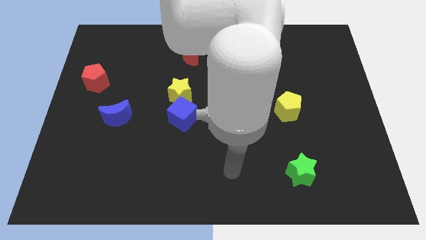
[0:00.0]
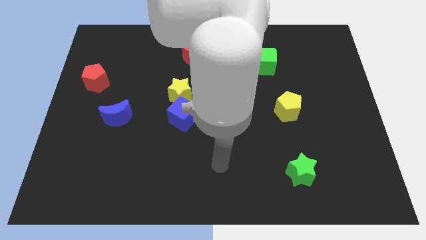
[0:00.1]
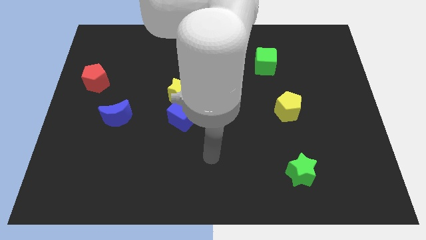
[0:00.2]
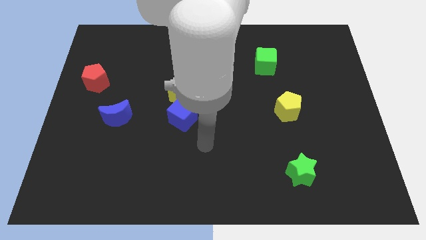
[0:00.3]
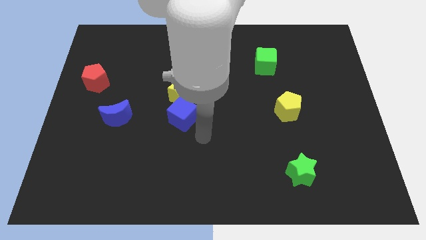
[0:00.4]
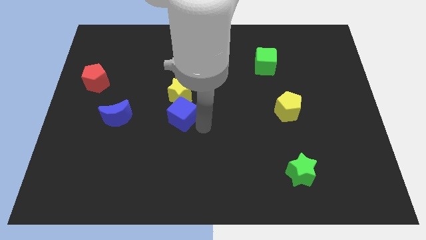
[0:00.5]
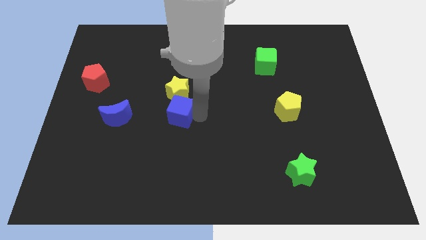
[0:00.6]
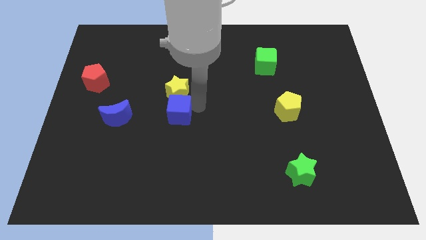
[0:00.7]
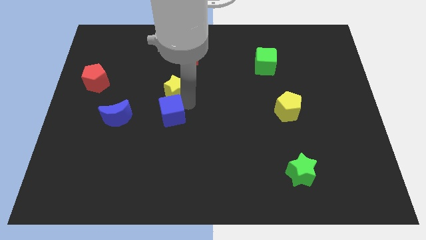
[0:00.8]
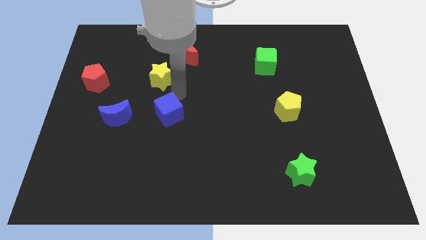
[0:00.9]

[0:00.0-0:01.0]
move the blue cube away from the yellow star

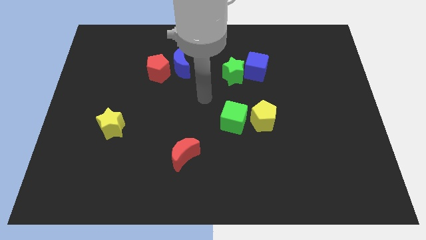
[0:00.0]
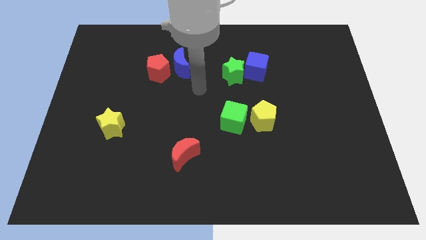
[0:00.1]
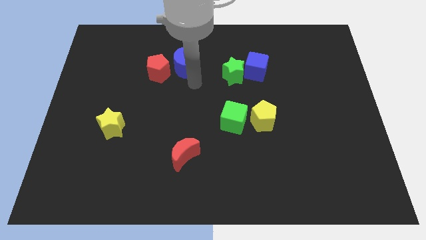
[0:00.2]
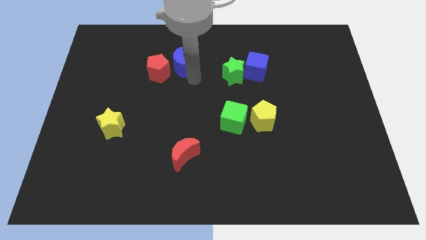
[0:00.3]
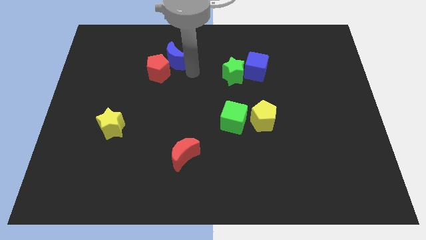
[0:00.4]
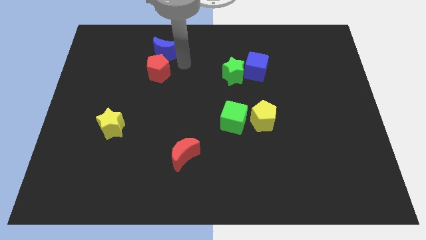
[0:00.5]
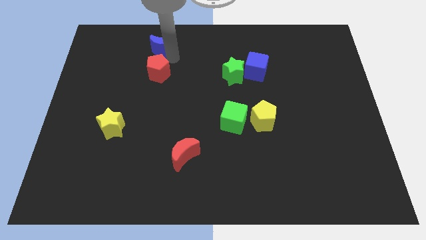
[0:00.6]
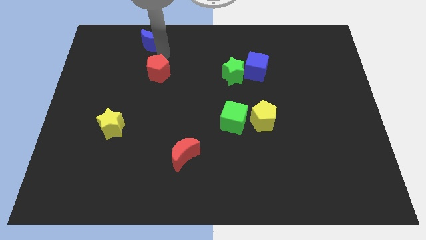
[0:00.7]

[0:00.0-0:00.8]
separate the red pentagon from the blue moon

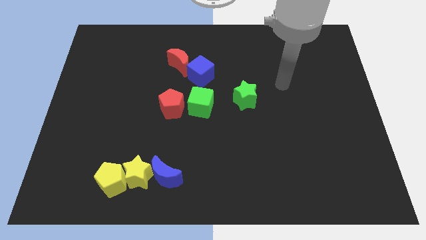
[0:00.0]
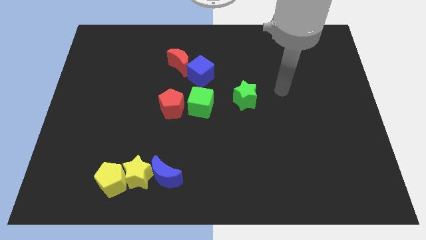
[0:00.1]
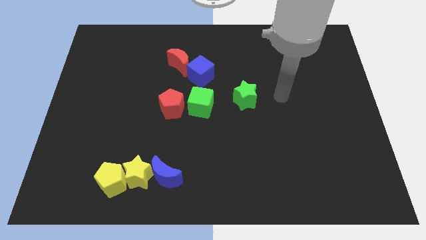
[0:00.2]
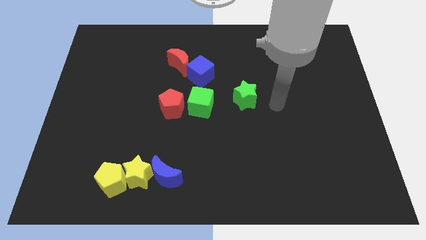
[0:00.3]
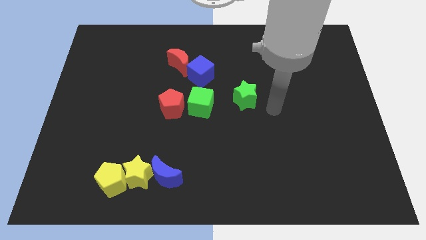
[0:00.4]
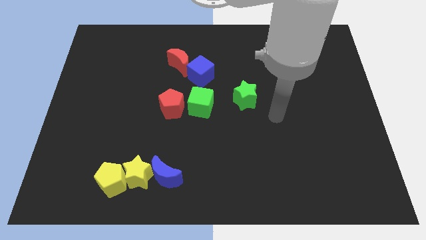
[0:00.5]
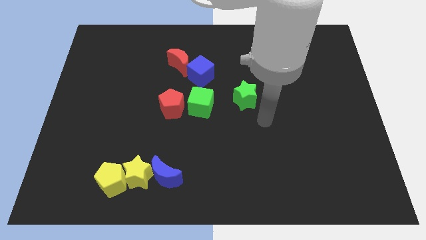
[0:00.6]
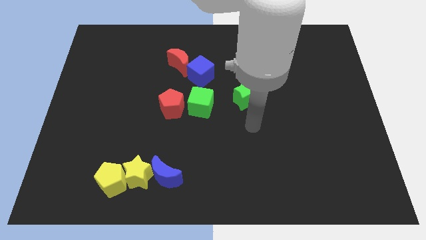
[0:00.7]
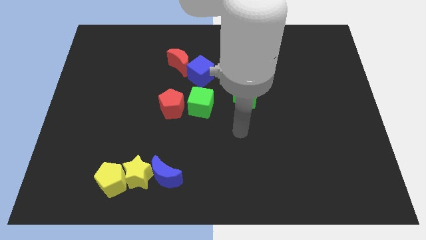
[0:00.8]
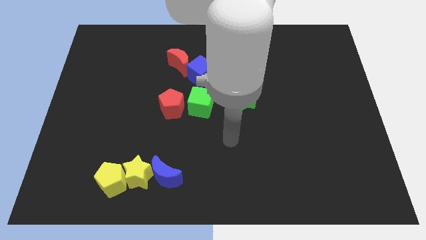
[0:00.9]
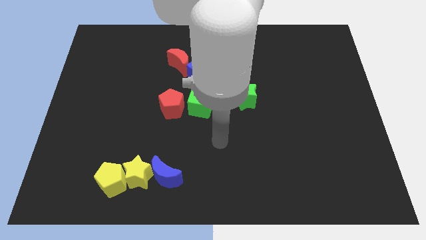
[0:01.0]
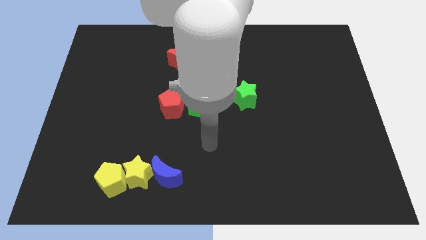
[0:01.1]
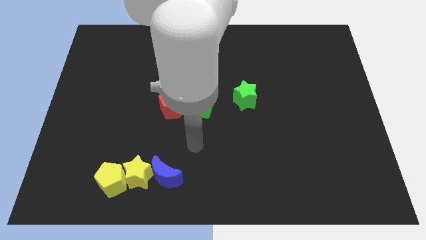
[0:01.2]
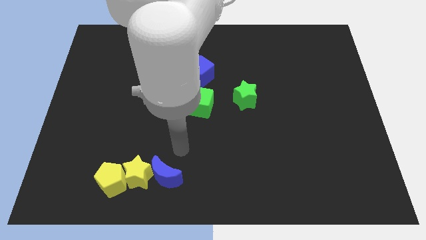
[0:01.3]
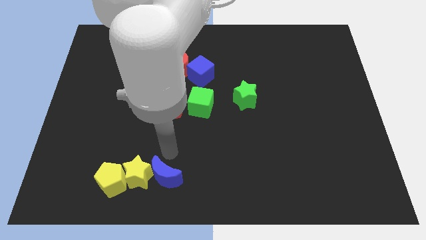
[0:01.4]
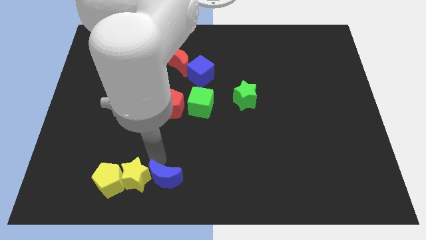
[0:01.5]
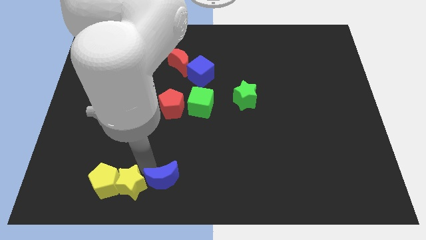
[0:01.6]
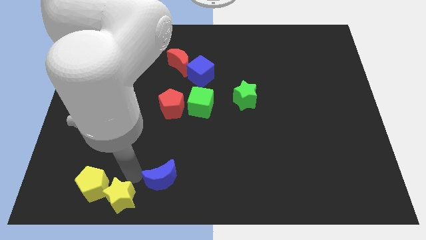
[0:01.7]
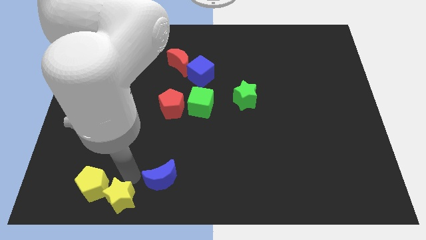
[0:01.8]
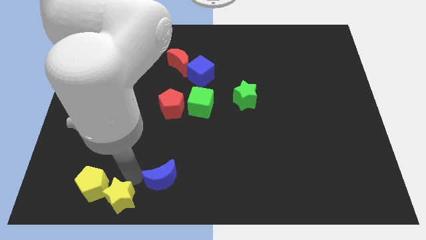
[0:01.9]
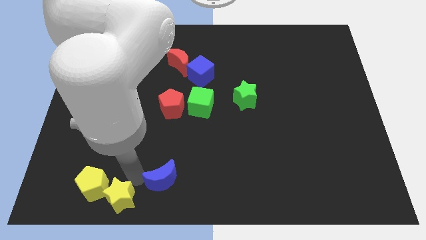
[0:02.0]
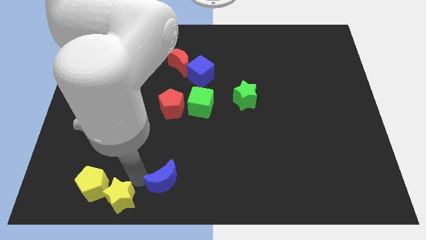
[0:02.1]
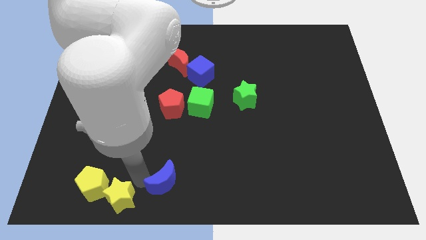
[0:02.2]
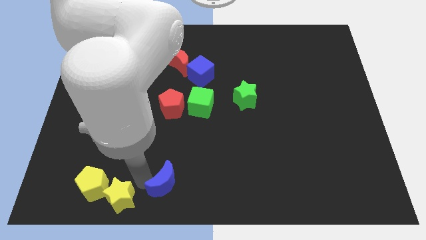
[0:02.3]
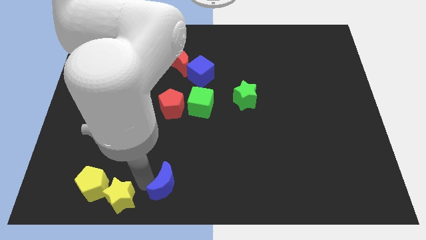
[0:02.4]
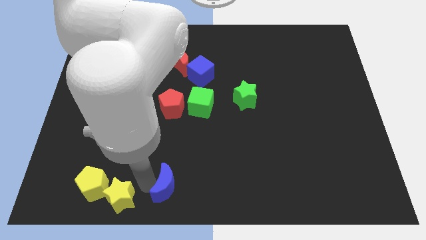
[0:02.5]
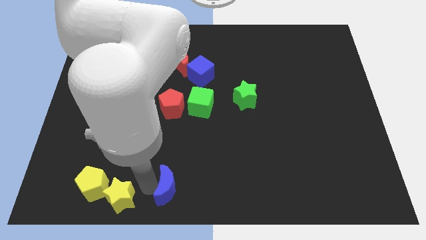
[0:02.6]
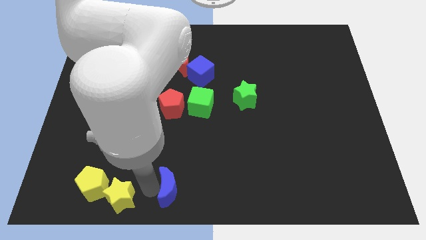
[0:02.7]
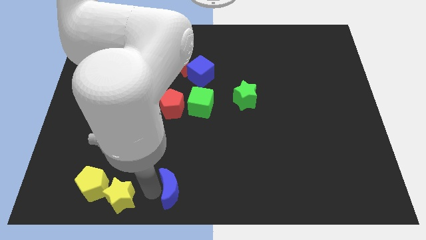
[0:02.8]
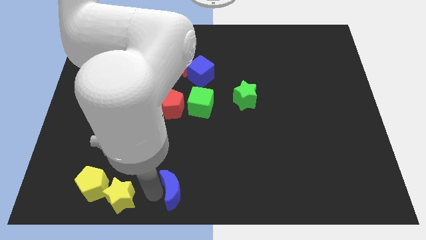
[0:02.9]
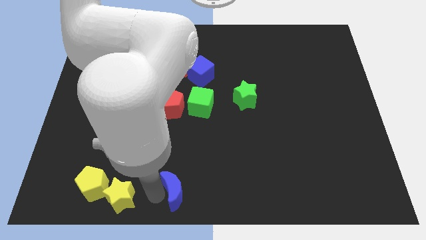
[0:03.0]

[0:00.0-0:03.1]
move the blue moon away from the yellow star

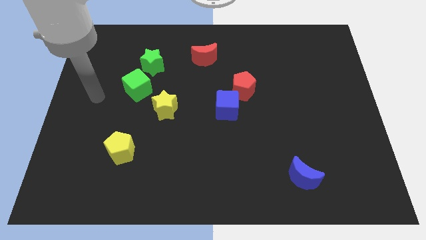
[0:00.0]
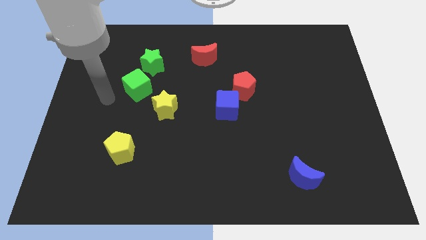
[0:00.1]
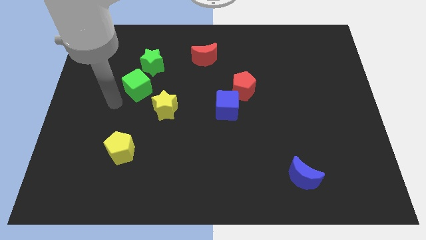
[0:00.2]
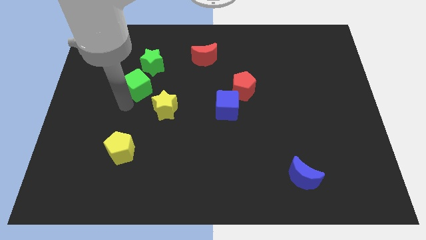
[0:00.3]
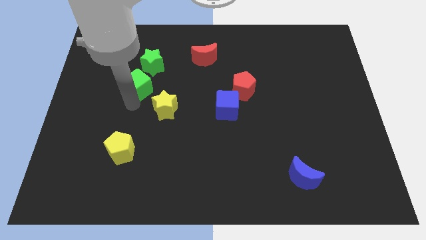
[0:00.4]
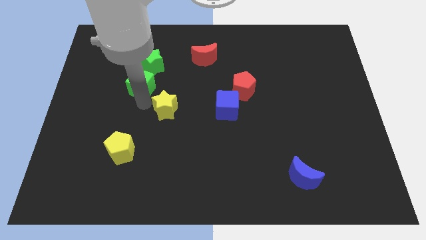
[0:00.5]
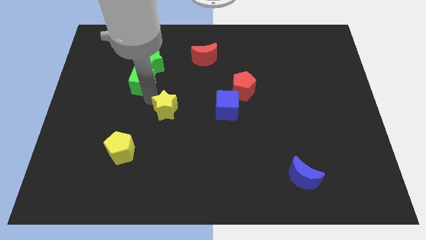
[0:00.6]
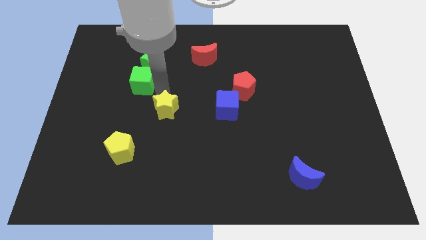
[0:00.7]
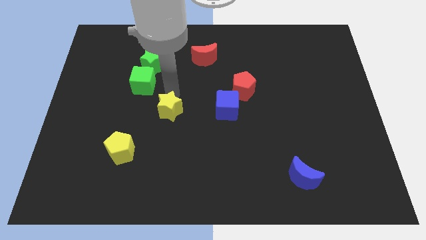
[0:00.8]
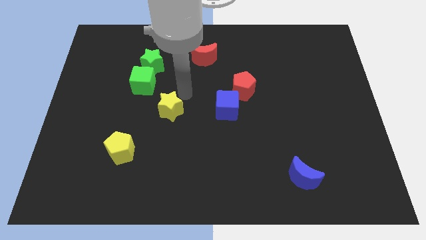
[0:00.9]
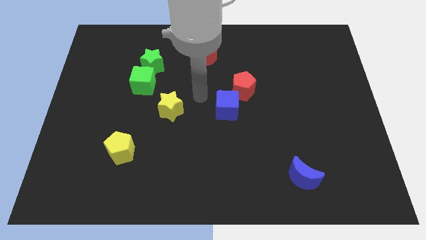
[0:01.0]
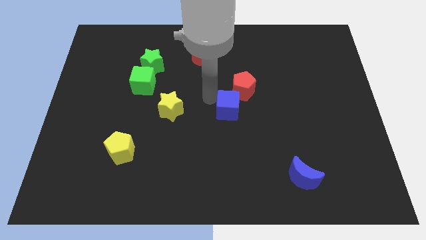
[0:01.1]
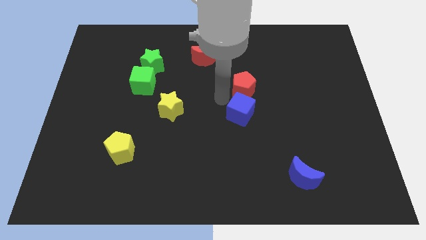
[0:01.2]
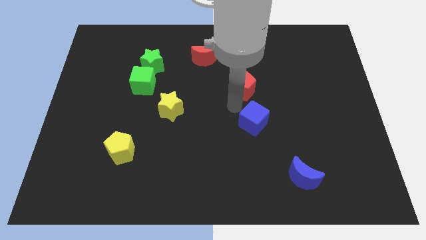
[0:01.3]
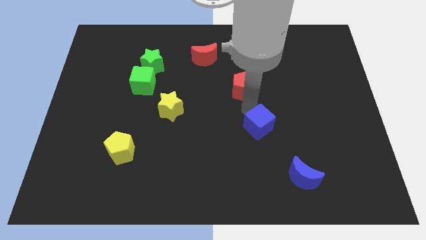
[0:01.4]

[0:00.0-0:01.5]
move the red pentagon away from the blue cube

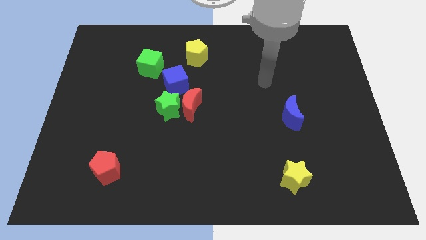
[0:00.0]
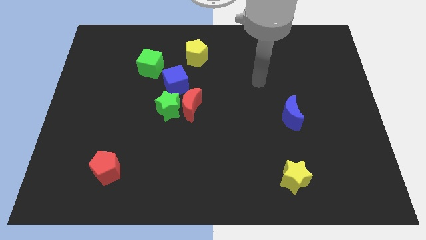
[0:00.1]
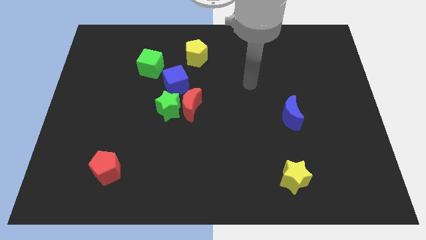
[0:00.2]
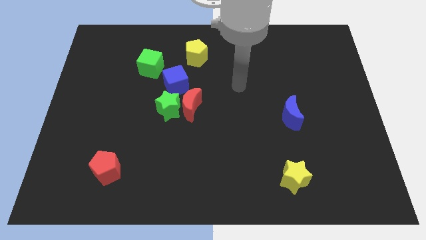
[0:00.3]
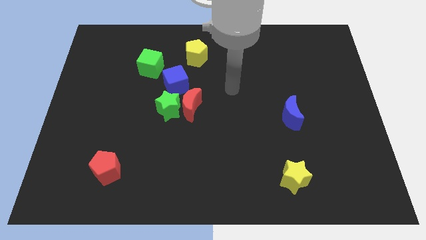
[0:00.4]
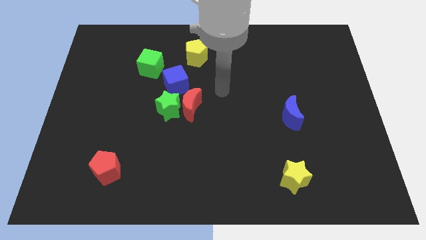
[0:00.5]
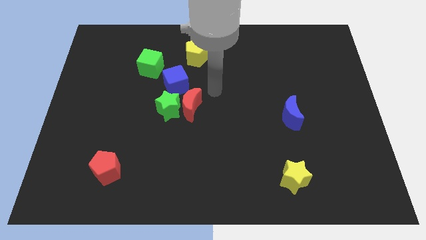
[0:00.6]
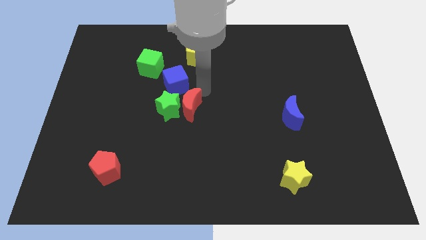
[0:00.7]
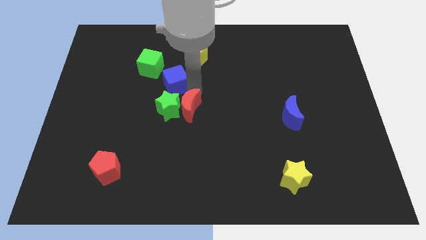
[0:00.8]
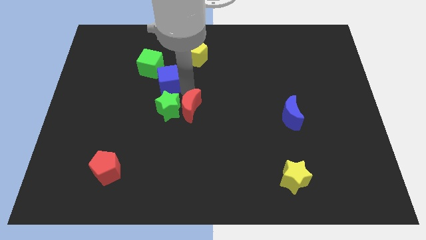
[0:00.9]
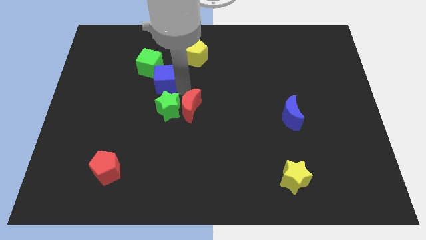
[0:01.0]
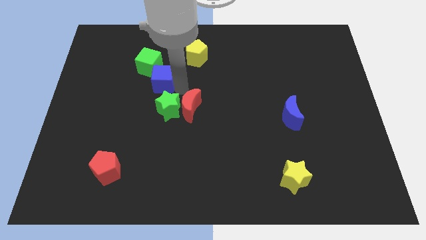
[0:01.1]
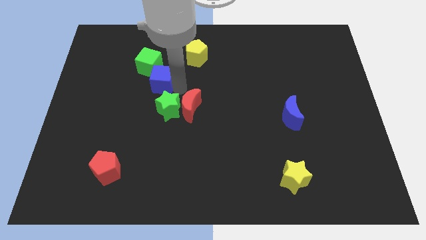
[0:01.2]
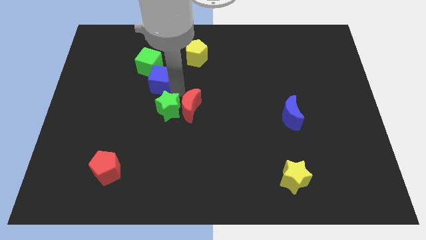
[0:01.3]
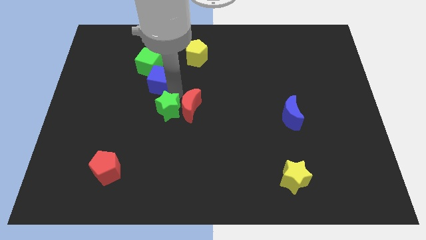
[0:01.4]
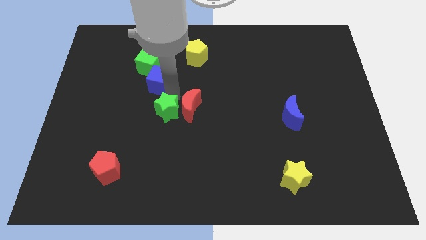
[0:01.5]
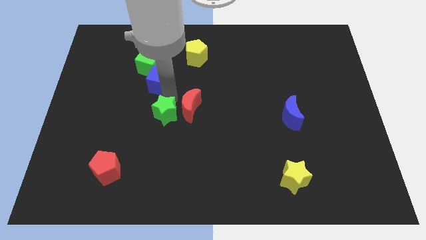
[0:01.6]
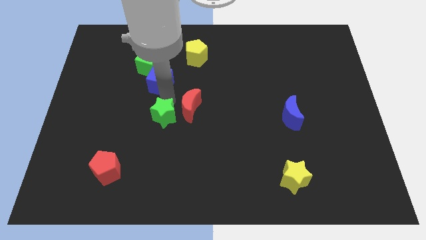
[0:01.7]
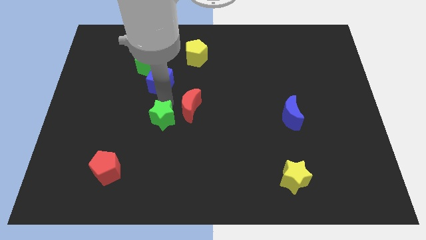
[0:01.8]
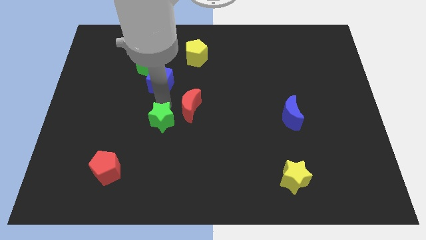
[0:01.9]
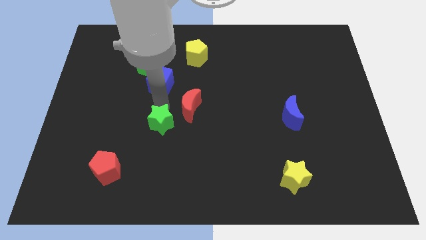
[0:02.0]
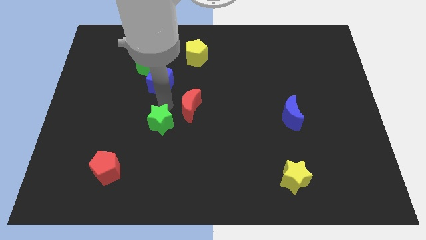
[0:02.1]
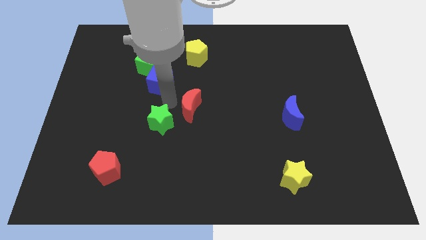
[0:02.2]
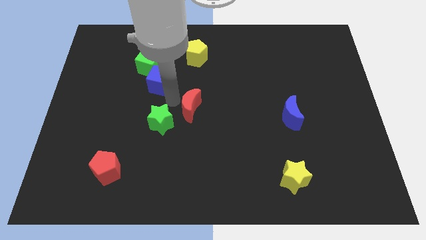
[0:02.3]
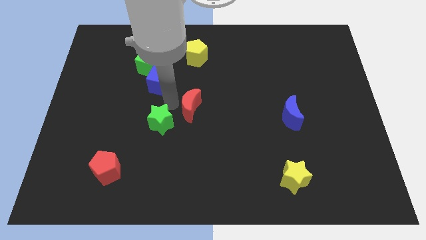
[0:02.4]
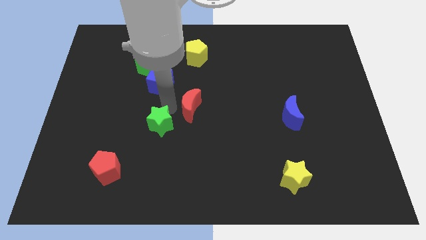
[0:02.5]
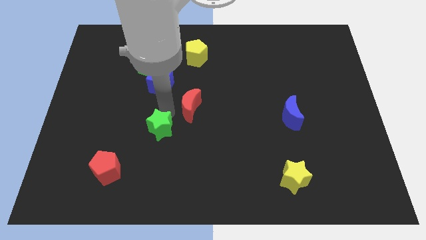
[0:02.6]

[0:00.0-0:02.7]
move the green star away from the red moon and blue cube

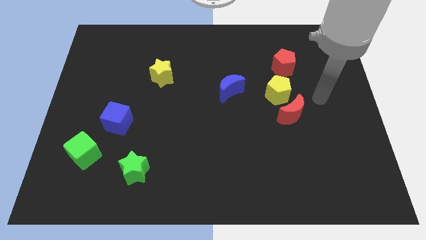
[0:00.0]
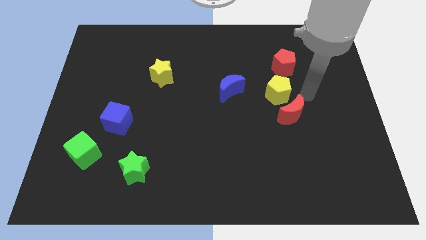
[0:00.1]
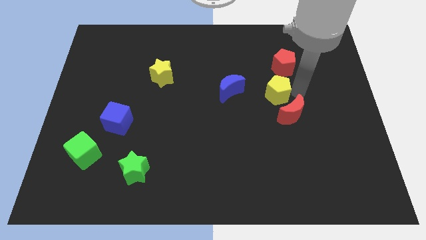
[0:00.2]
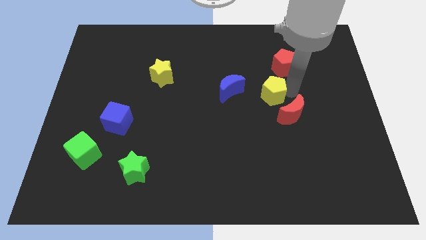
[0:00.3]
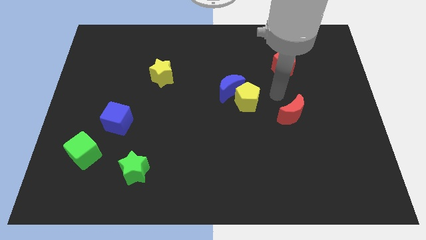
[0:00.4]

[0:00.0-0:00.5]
pull the red moon apart from the yellow pentagon
